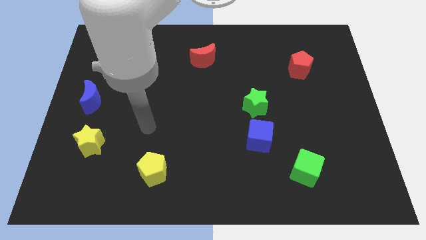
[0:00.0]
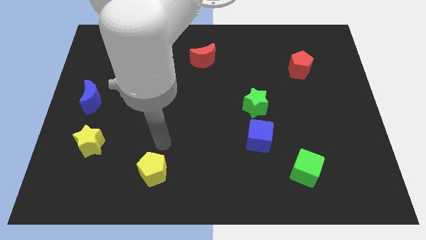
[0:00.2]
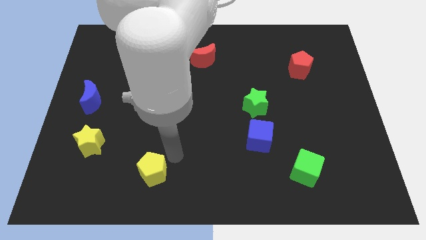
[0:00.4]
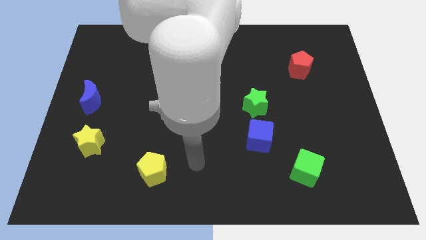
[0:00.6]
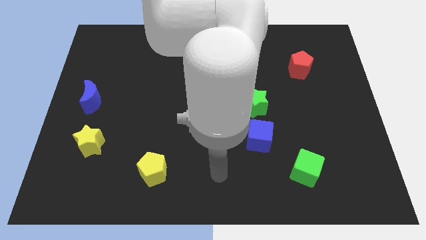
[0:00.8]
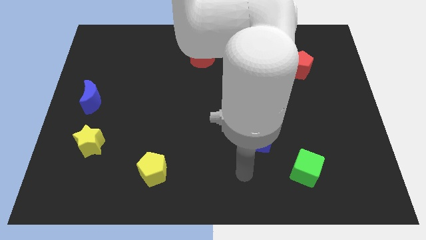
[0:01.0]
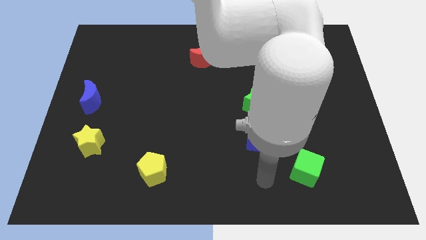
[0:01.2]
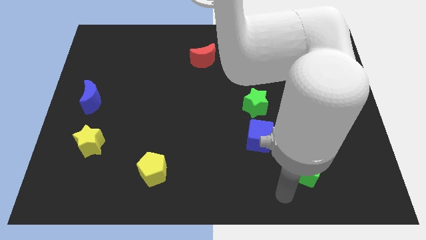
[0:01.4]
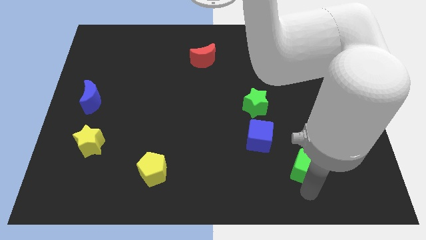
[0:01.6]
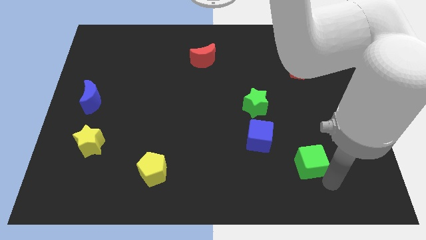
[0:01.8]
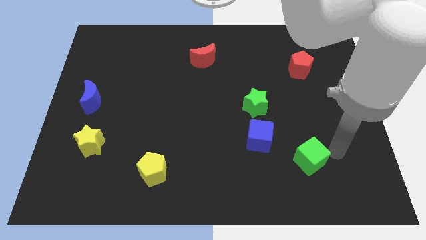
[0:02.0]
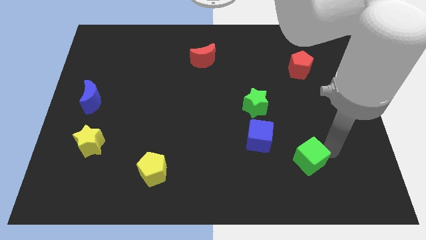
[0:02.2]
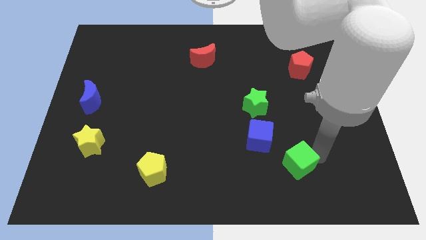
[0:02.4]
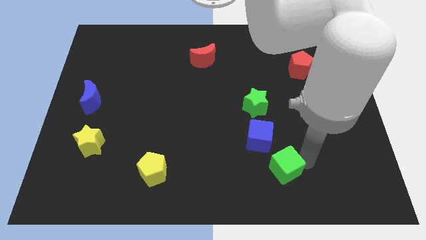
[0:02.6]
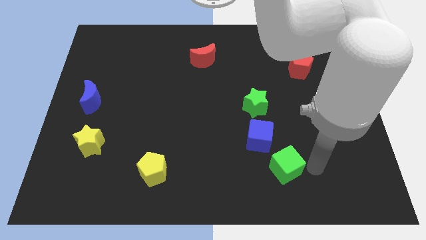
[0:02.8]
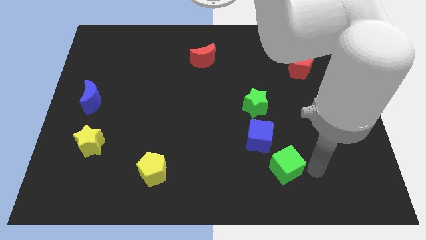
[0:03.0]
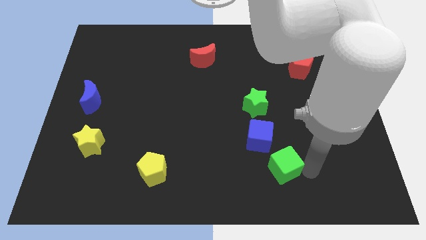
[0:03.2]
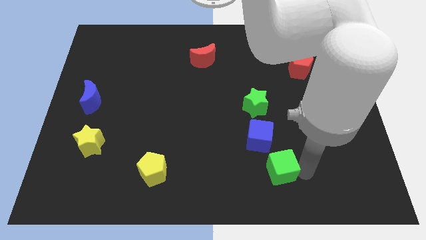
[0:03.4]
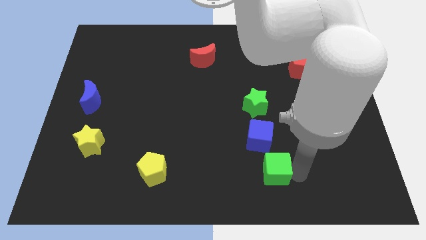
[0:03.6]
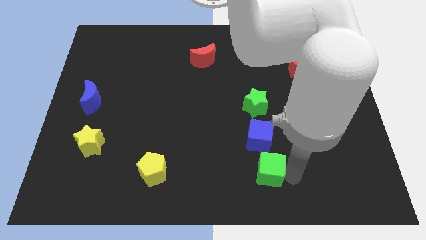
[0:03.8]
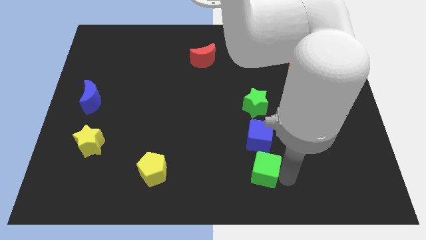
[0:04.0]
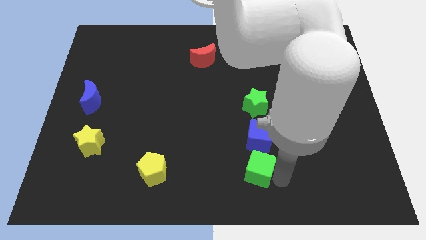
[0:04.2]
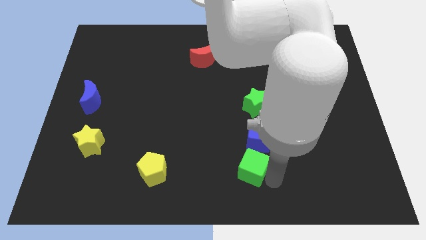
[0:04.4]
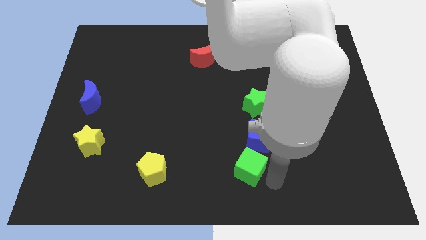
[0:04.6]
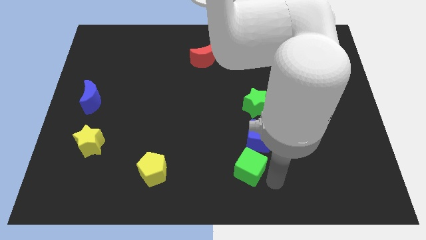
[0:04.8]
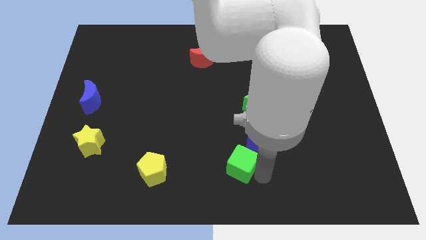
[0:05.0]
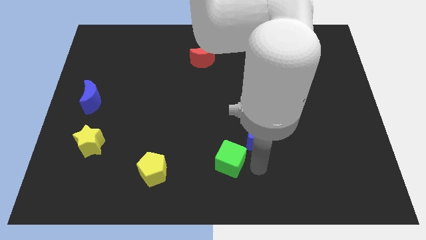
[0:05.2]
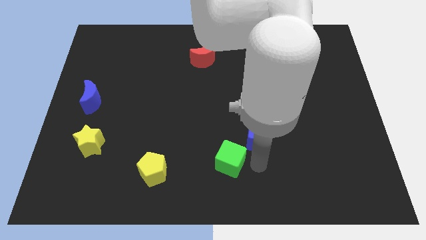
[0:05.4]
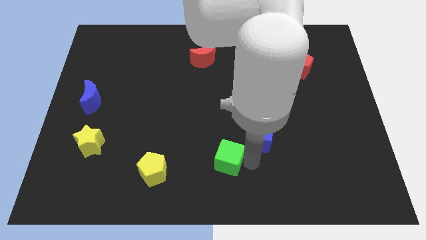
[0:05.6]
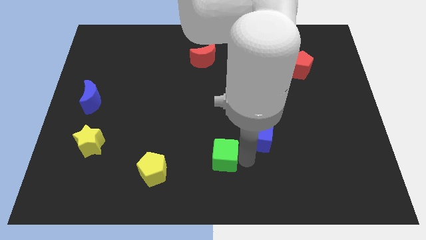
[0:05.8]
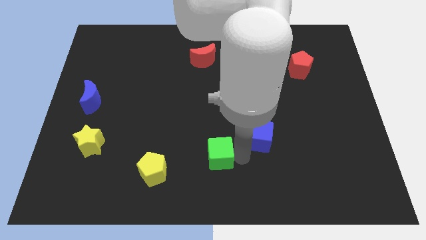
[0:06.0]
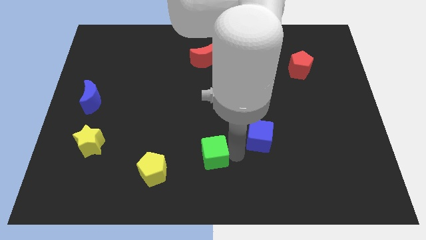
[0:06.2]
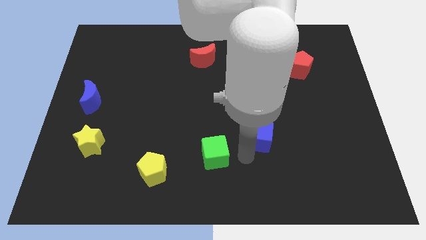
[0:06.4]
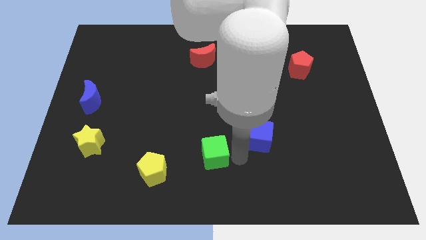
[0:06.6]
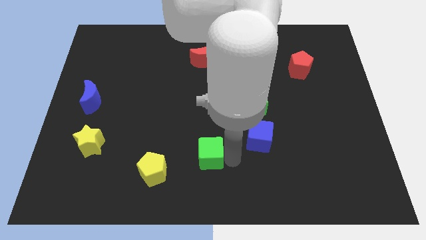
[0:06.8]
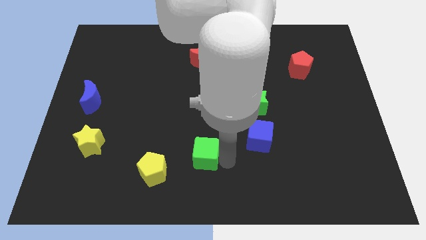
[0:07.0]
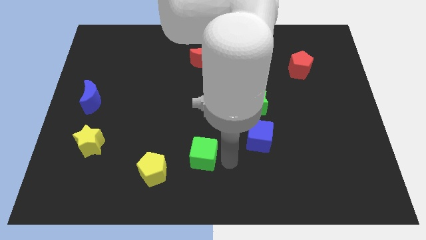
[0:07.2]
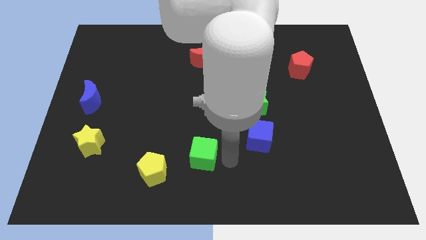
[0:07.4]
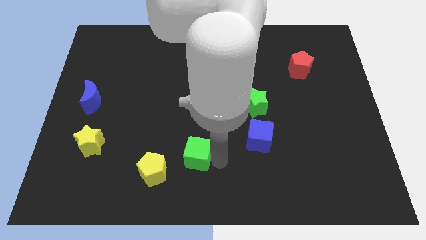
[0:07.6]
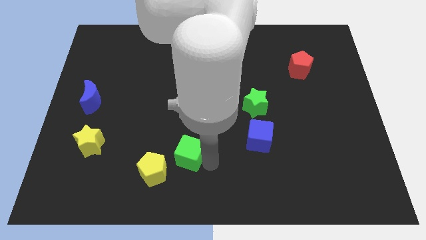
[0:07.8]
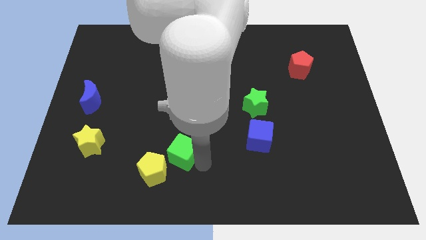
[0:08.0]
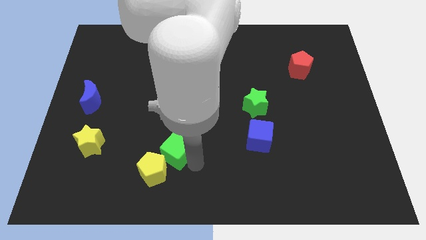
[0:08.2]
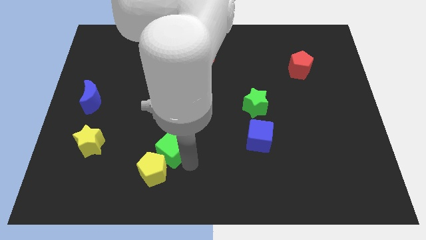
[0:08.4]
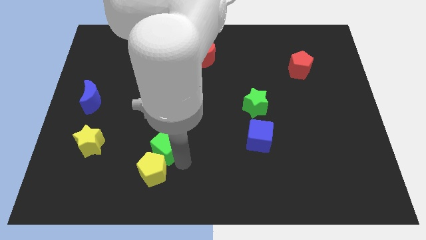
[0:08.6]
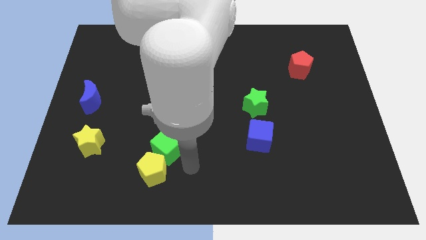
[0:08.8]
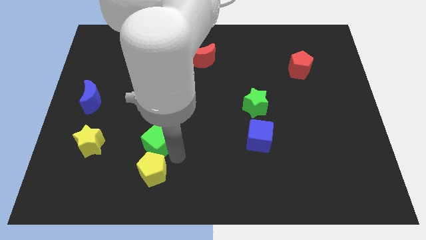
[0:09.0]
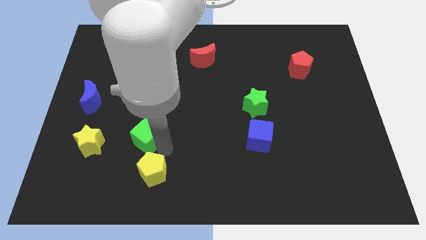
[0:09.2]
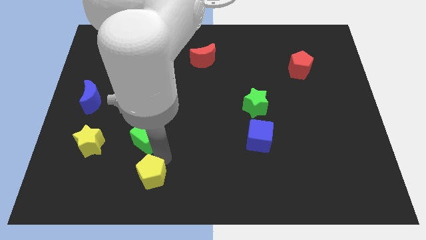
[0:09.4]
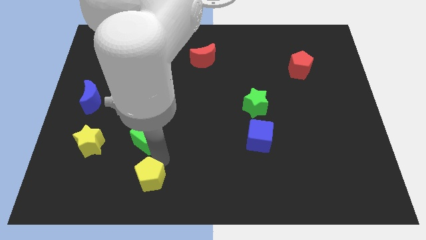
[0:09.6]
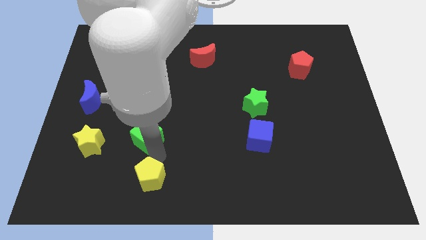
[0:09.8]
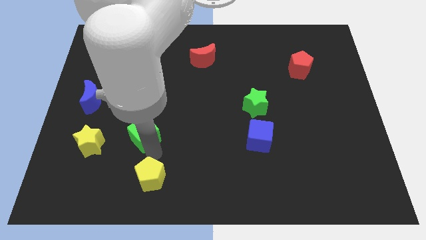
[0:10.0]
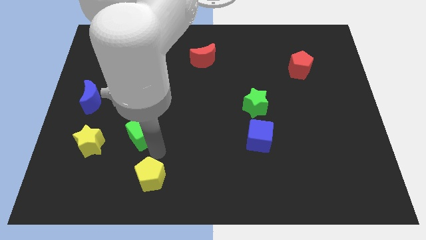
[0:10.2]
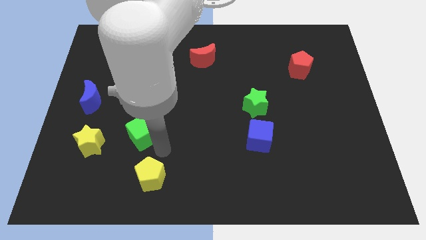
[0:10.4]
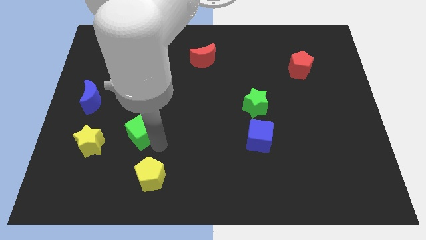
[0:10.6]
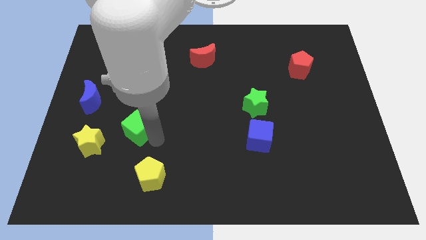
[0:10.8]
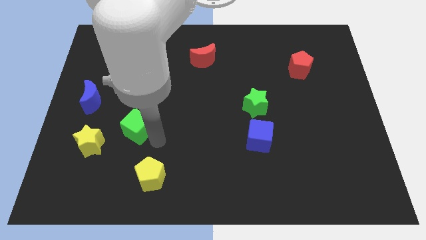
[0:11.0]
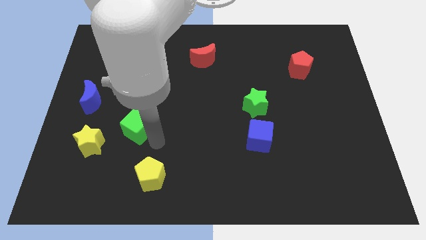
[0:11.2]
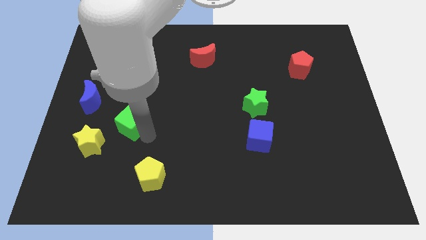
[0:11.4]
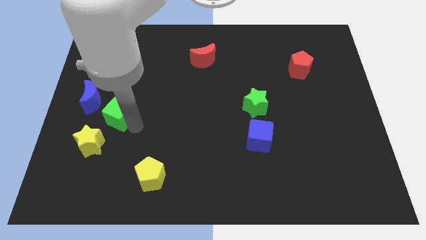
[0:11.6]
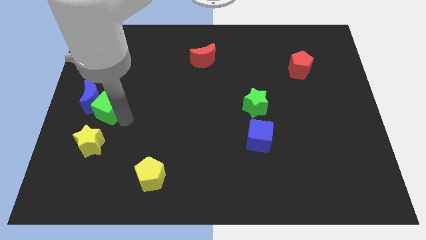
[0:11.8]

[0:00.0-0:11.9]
push the green cube towards the blue moon

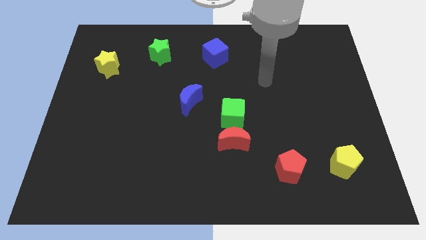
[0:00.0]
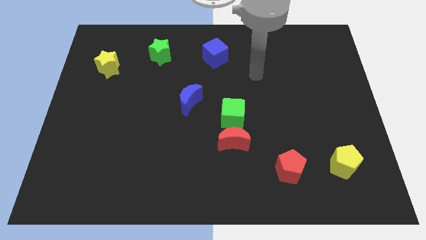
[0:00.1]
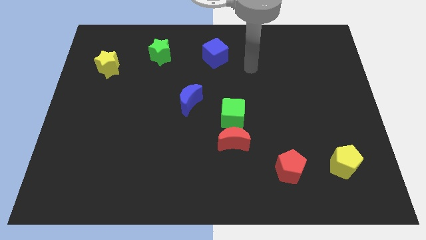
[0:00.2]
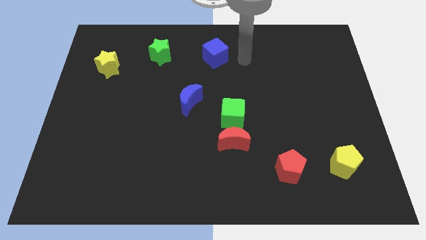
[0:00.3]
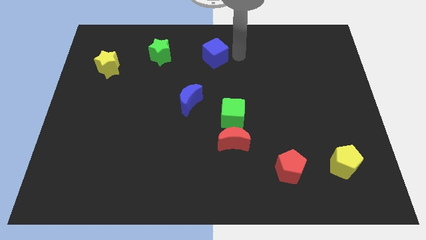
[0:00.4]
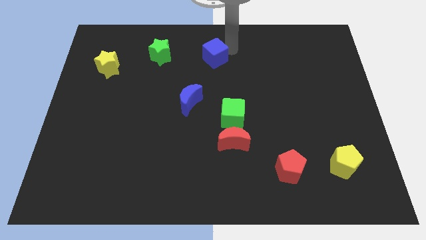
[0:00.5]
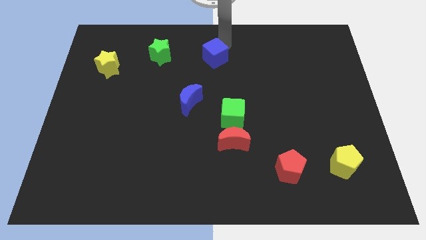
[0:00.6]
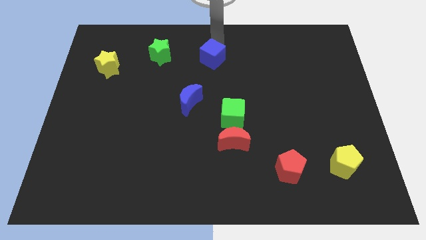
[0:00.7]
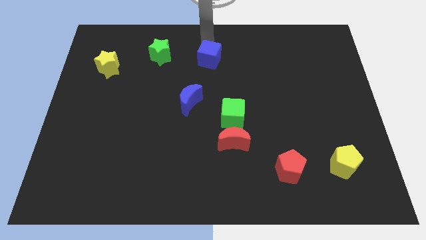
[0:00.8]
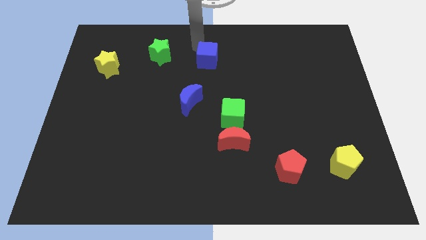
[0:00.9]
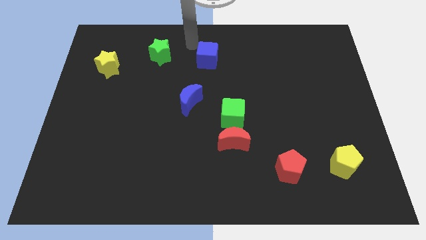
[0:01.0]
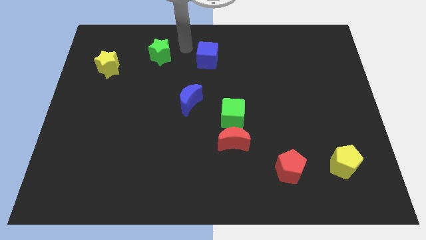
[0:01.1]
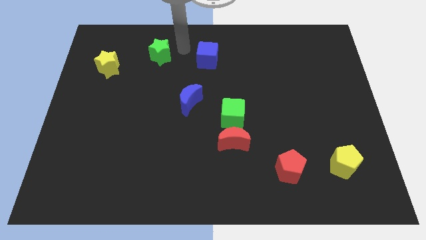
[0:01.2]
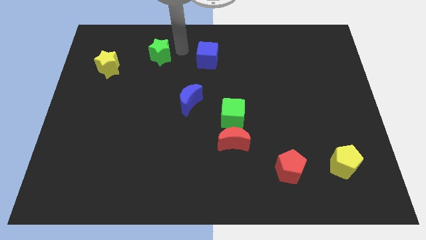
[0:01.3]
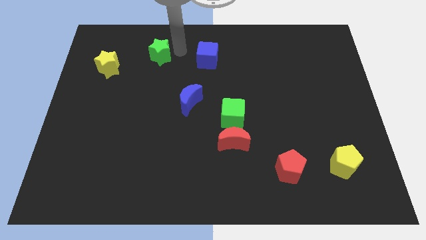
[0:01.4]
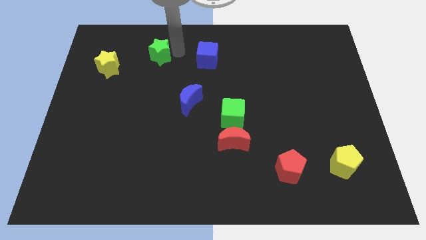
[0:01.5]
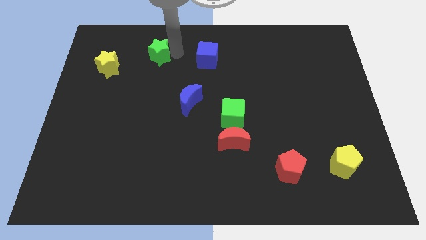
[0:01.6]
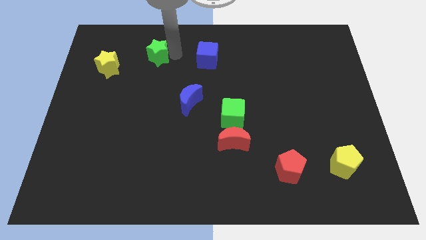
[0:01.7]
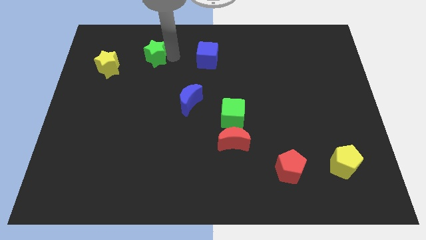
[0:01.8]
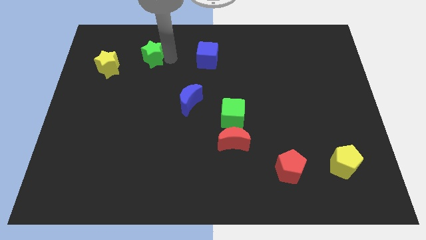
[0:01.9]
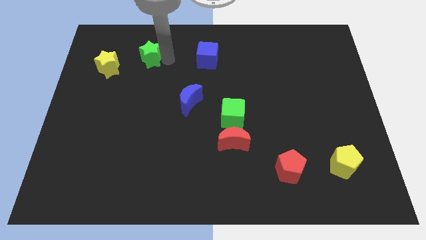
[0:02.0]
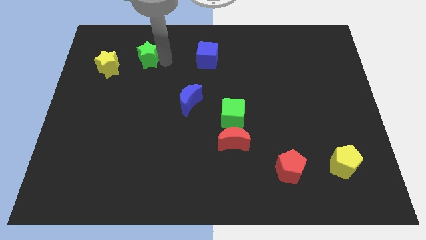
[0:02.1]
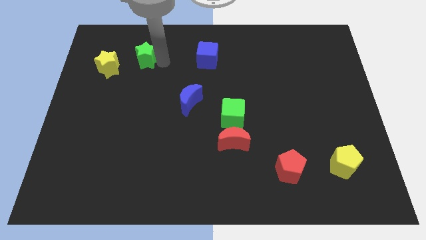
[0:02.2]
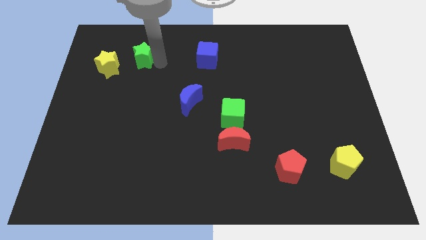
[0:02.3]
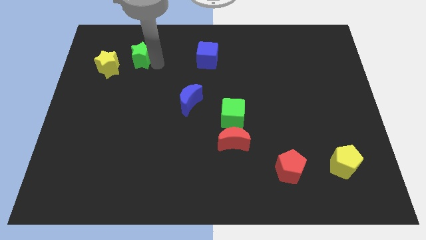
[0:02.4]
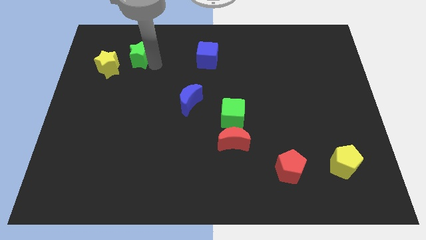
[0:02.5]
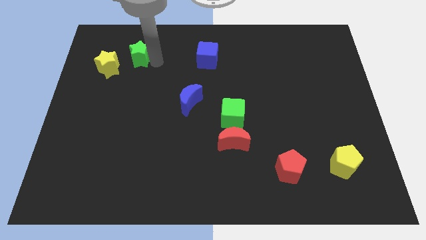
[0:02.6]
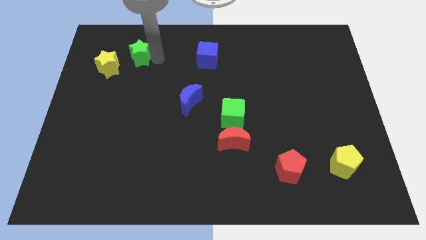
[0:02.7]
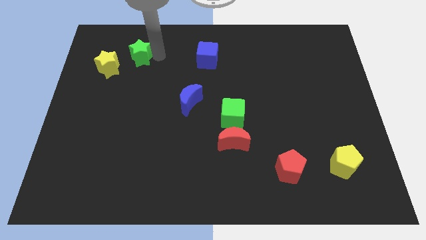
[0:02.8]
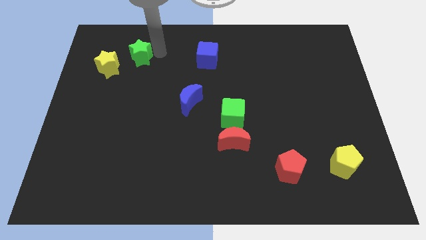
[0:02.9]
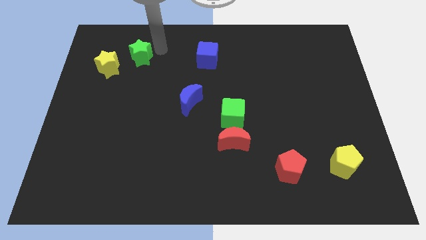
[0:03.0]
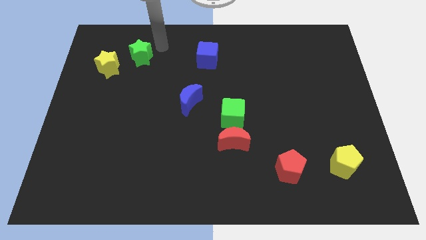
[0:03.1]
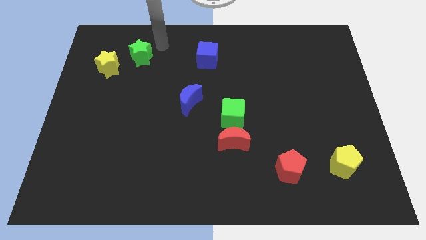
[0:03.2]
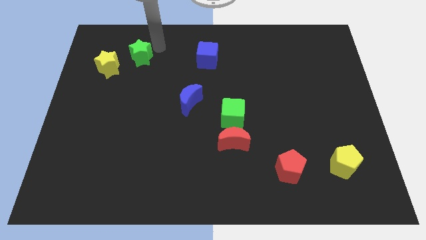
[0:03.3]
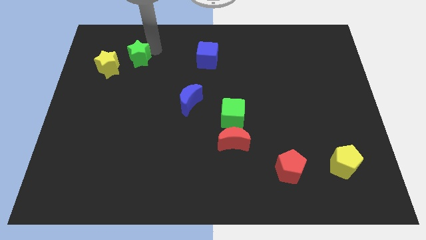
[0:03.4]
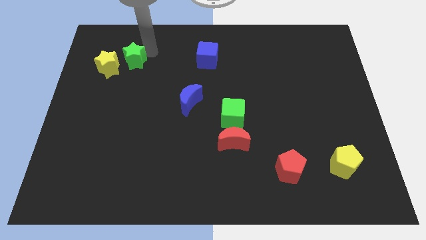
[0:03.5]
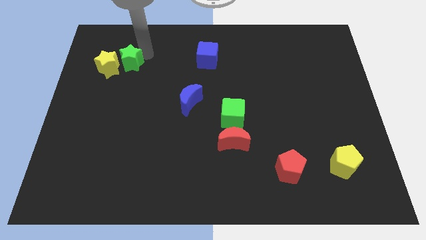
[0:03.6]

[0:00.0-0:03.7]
push the green star to the yellow star
